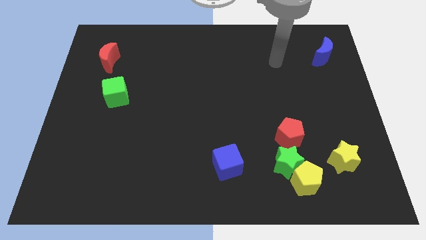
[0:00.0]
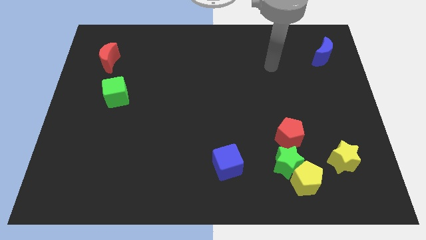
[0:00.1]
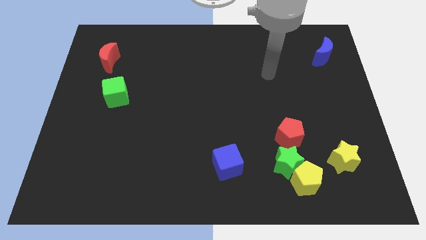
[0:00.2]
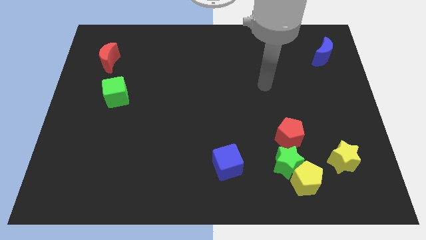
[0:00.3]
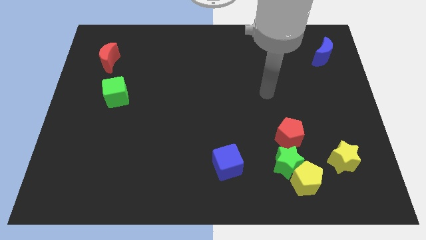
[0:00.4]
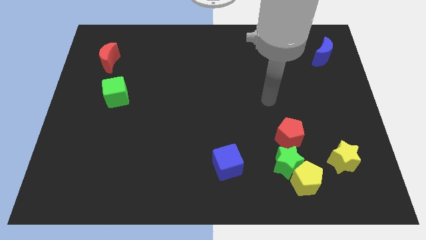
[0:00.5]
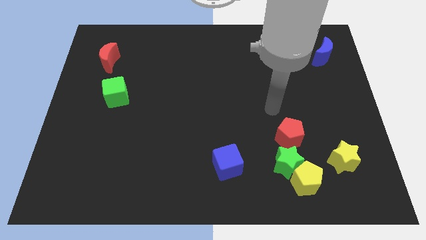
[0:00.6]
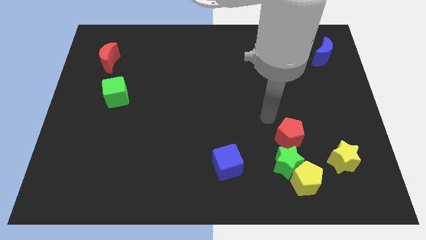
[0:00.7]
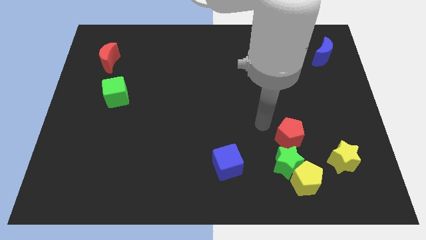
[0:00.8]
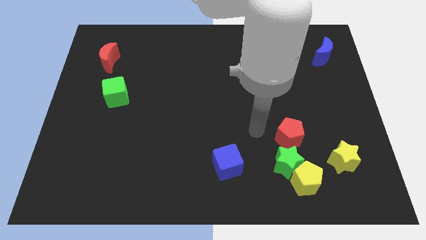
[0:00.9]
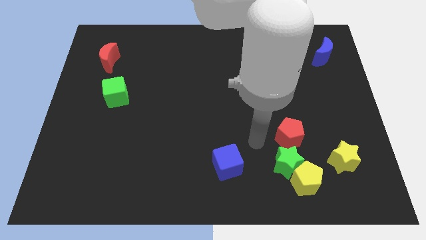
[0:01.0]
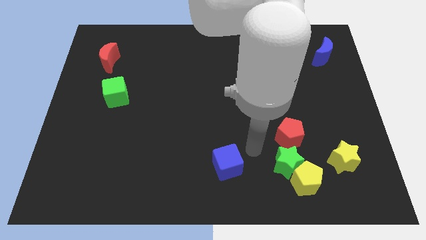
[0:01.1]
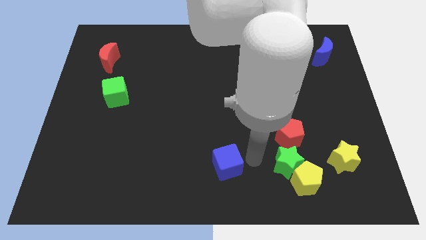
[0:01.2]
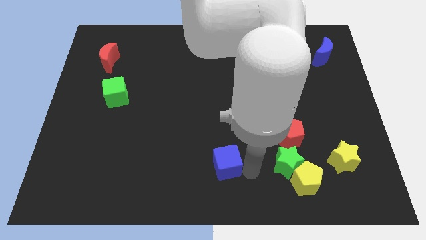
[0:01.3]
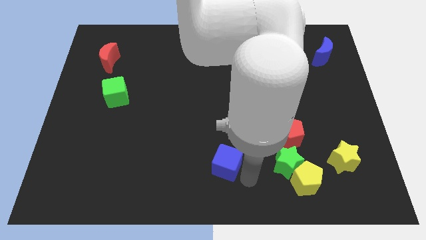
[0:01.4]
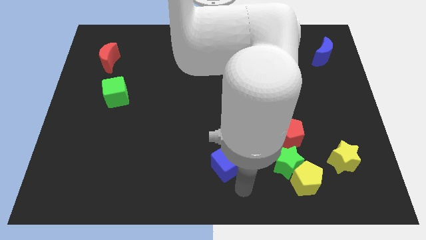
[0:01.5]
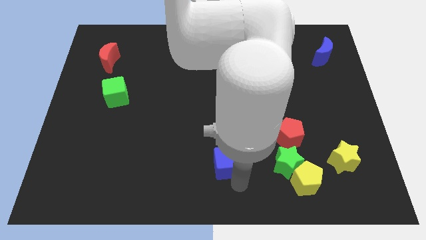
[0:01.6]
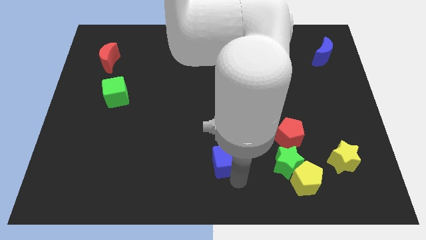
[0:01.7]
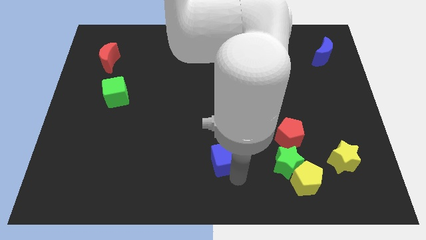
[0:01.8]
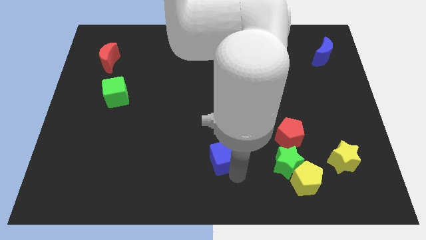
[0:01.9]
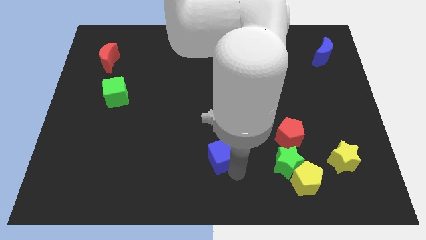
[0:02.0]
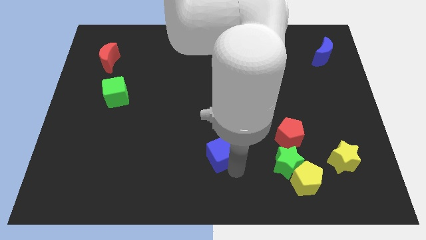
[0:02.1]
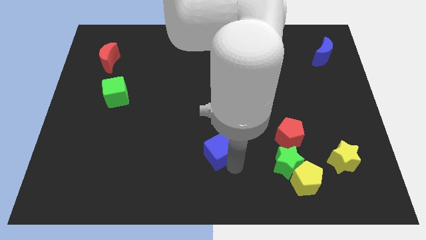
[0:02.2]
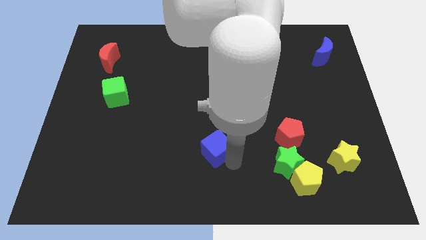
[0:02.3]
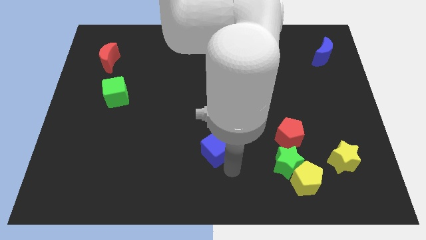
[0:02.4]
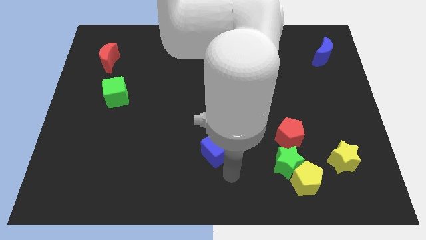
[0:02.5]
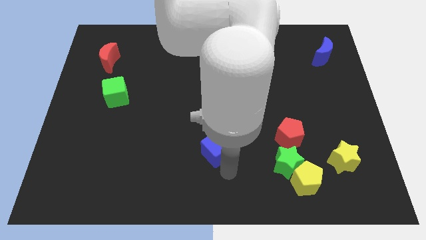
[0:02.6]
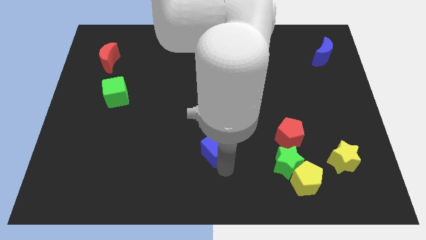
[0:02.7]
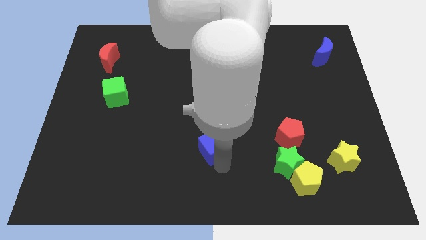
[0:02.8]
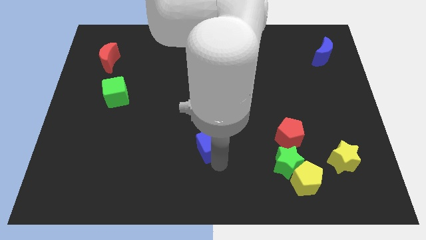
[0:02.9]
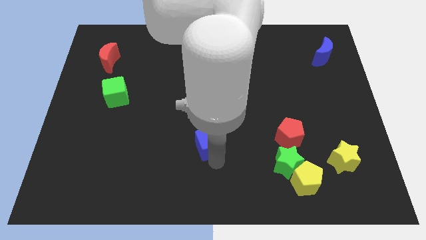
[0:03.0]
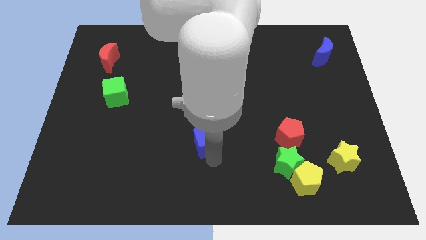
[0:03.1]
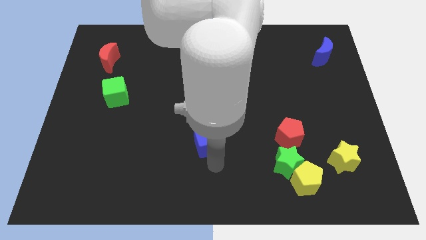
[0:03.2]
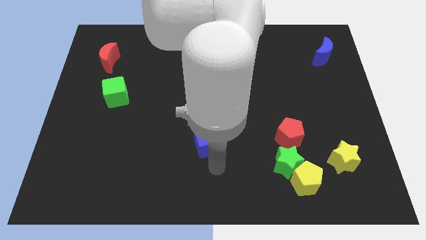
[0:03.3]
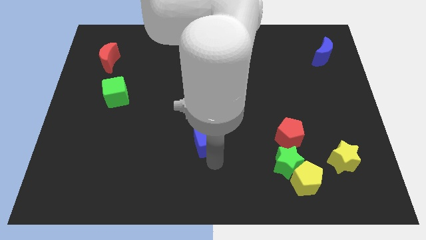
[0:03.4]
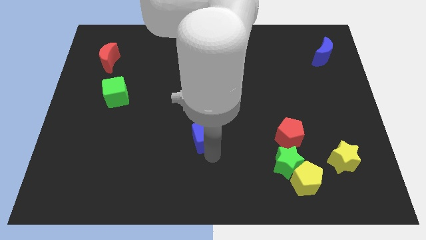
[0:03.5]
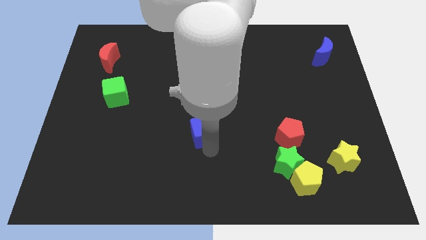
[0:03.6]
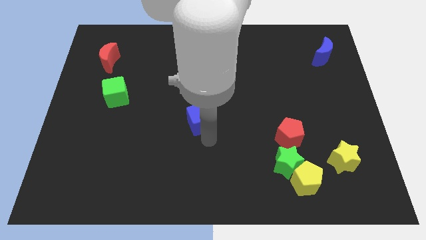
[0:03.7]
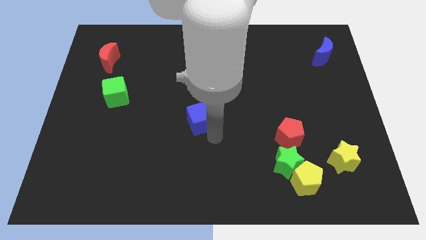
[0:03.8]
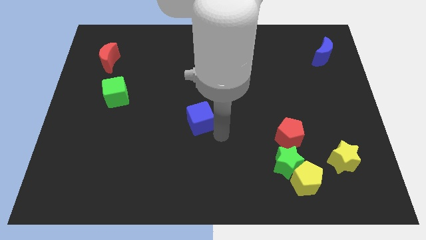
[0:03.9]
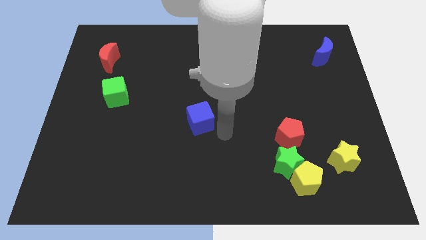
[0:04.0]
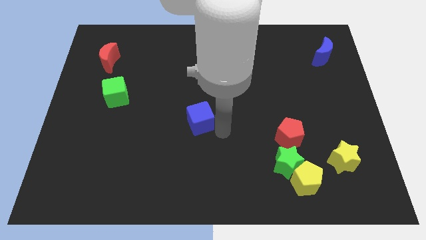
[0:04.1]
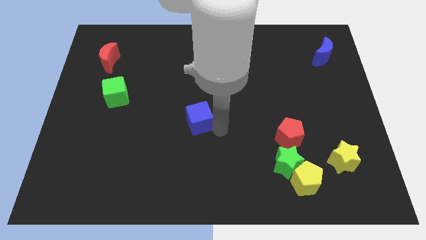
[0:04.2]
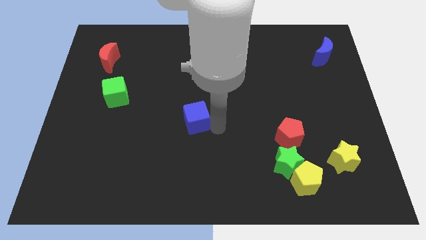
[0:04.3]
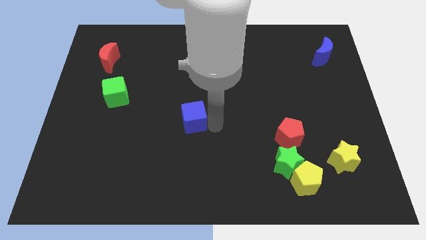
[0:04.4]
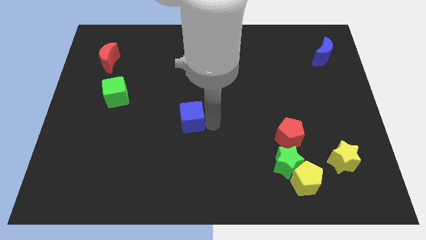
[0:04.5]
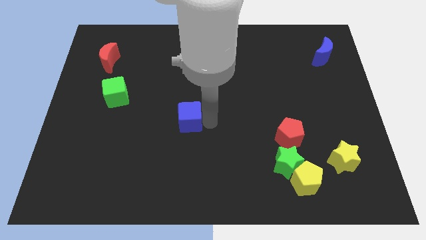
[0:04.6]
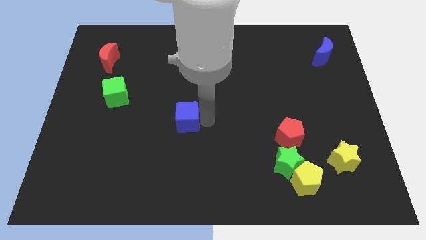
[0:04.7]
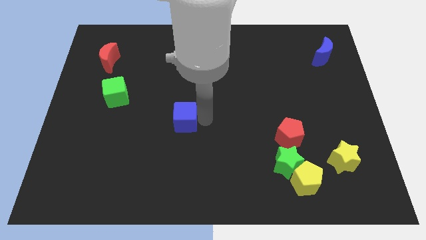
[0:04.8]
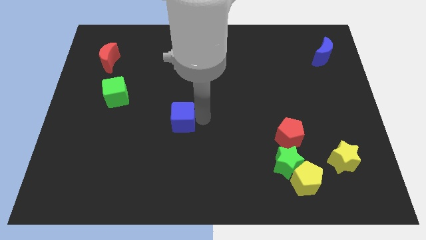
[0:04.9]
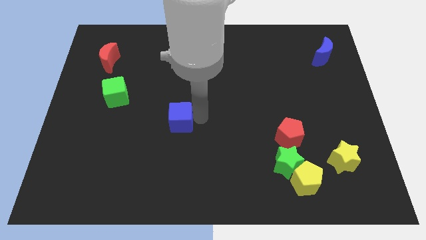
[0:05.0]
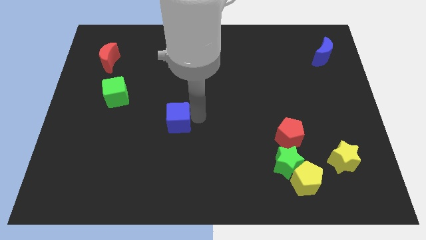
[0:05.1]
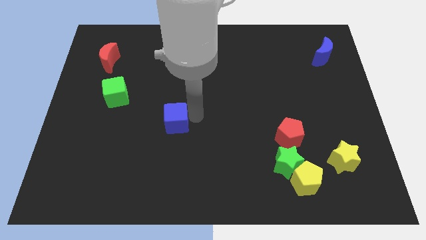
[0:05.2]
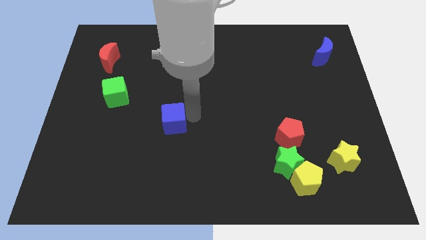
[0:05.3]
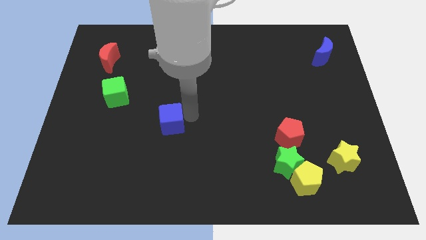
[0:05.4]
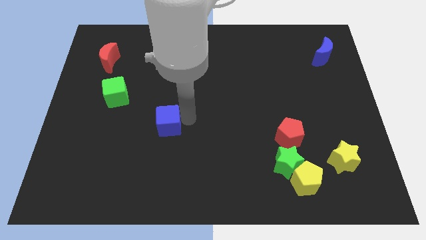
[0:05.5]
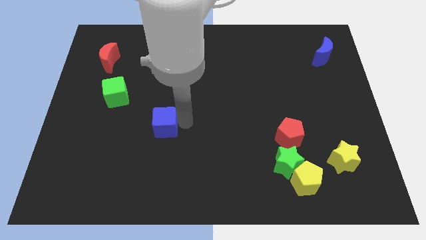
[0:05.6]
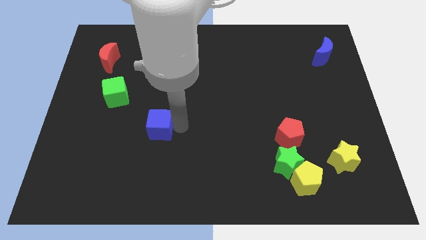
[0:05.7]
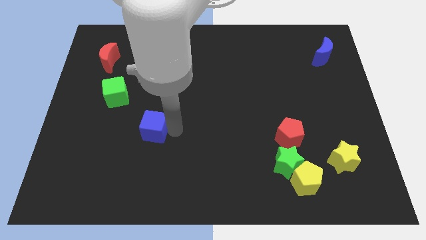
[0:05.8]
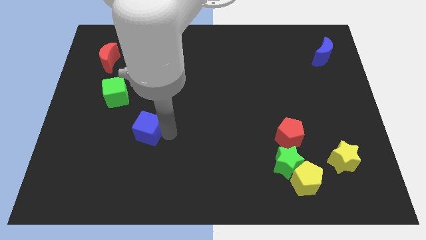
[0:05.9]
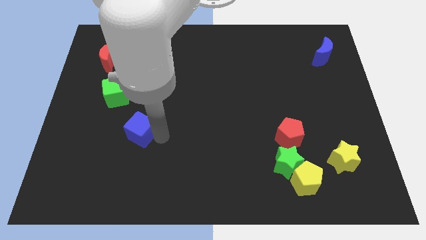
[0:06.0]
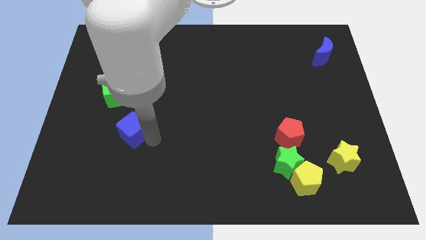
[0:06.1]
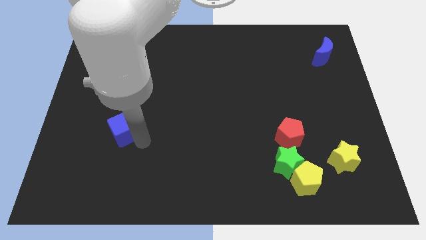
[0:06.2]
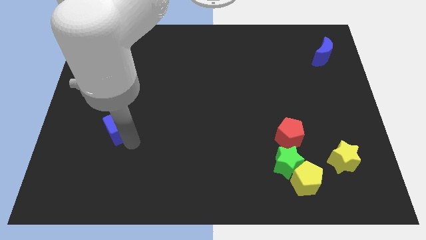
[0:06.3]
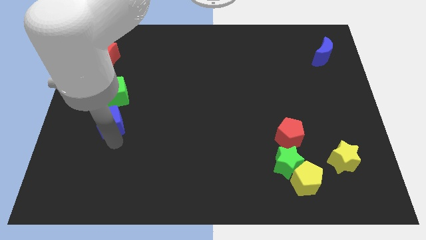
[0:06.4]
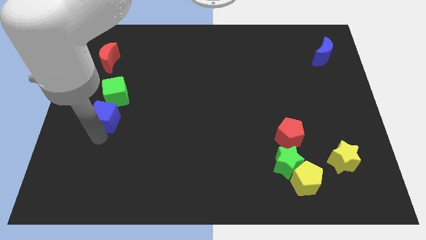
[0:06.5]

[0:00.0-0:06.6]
move the blue cube up and to the left diagonally

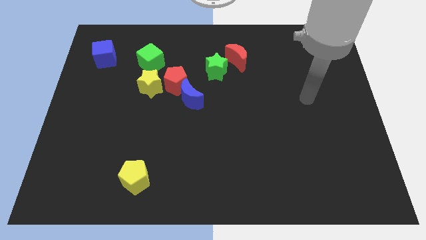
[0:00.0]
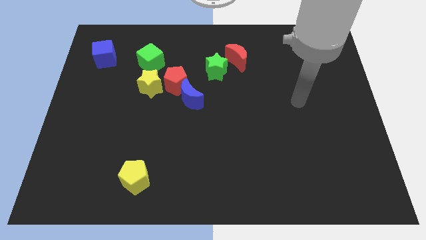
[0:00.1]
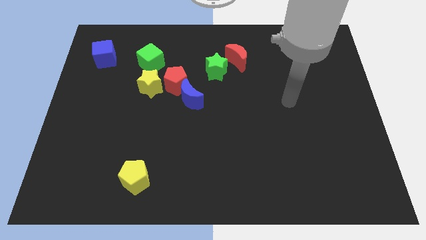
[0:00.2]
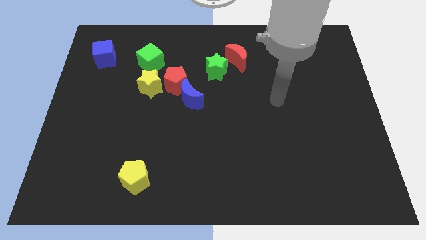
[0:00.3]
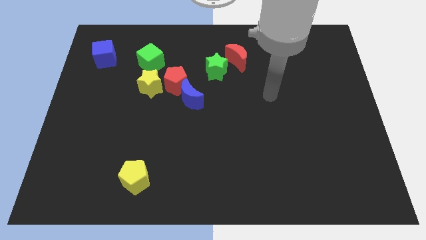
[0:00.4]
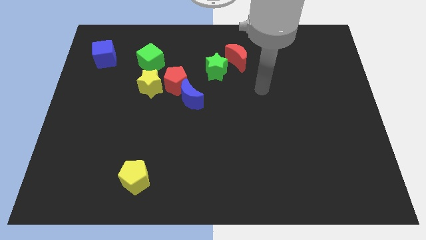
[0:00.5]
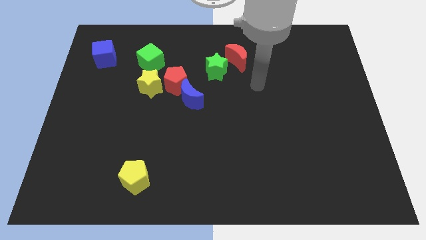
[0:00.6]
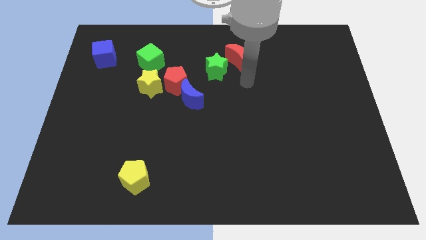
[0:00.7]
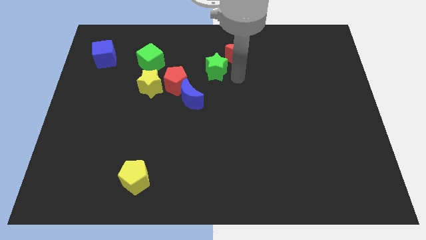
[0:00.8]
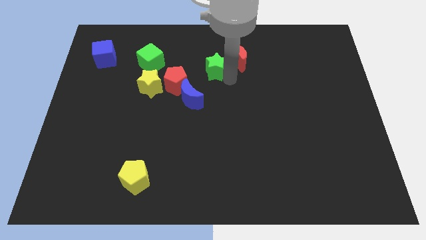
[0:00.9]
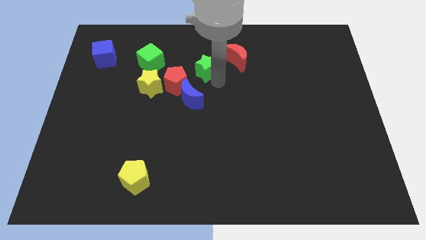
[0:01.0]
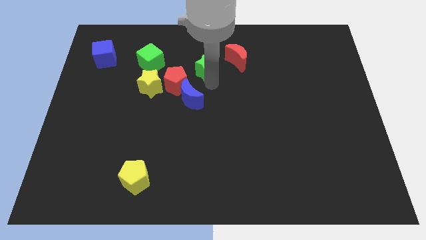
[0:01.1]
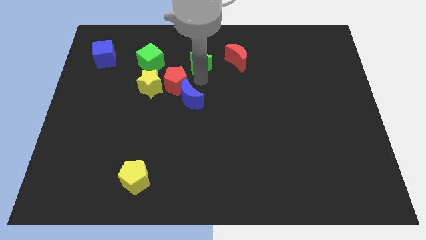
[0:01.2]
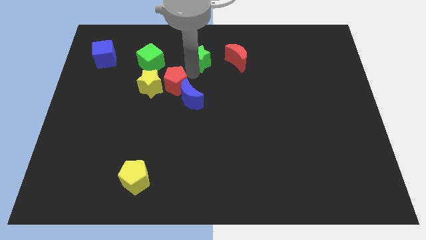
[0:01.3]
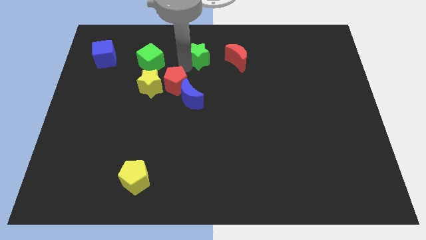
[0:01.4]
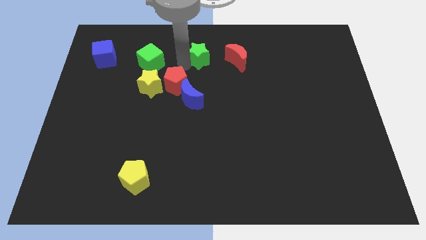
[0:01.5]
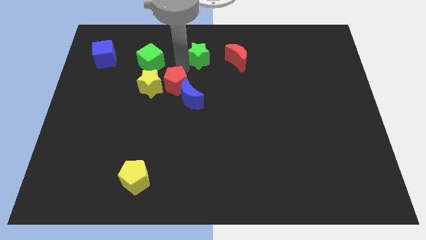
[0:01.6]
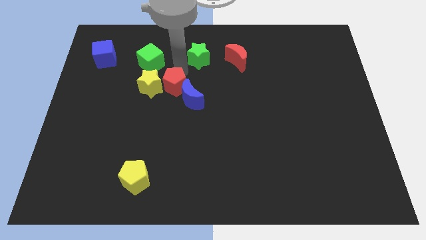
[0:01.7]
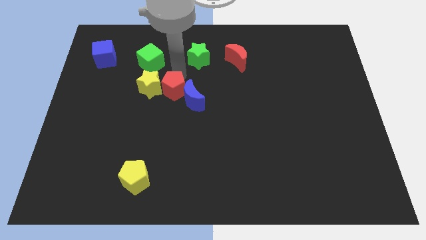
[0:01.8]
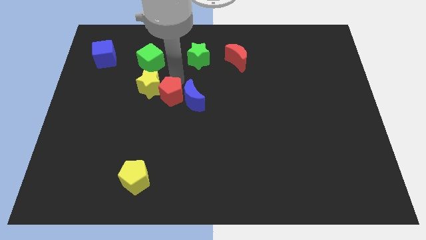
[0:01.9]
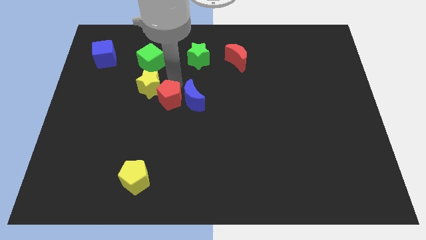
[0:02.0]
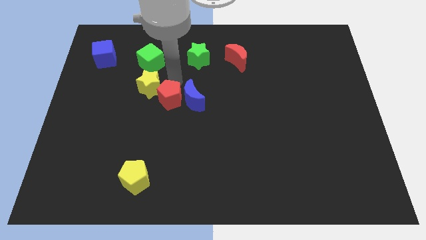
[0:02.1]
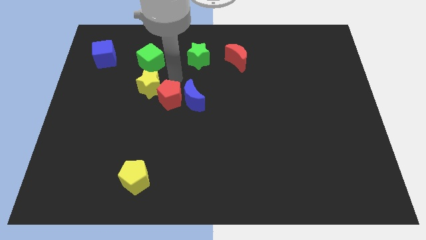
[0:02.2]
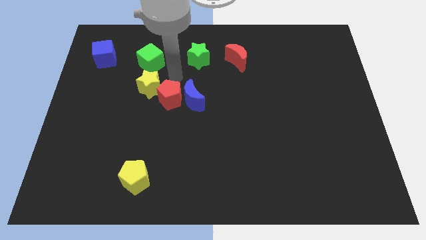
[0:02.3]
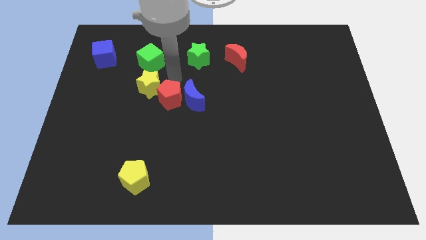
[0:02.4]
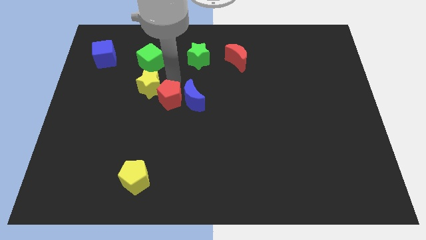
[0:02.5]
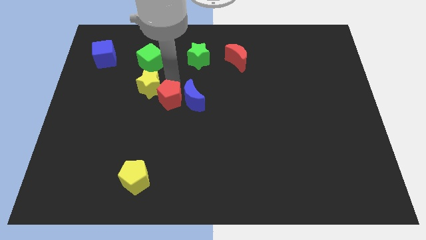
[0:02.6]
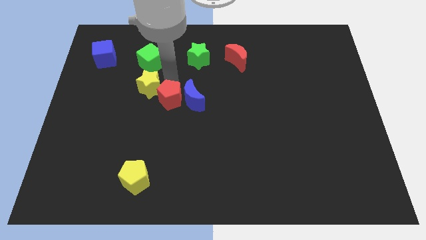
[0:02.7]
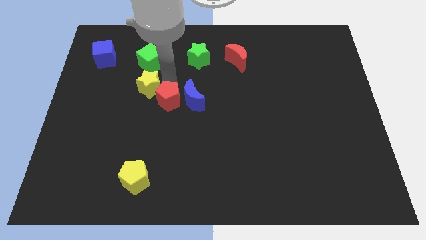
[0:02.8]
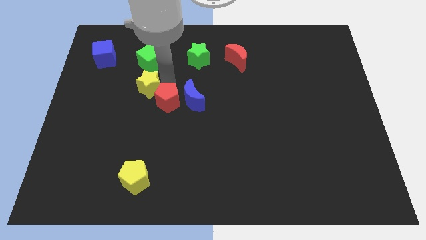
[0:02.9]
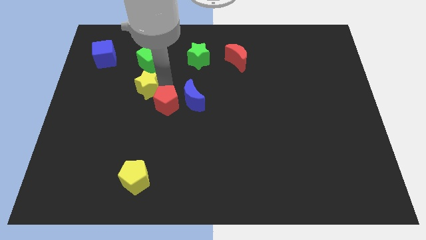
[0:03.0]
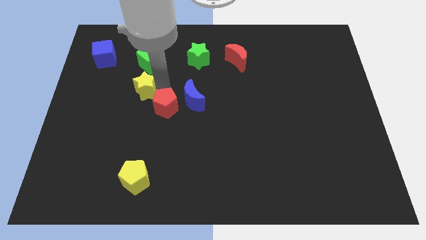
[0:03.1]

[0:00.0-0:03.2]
move the red pentagon a bit down
